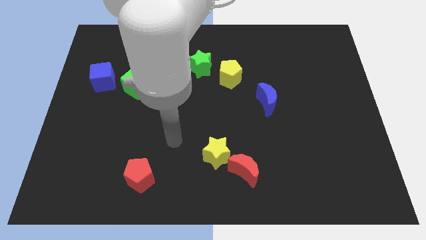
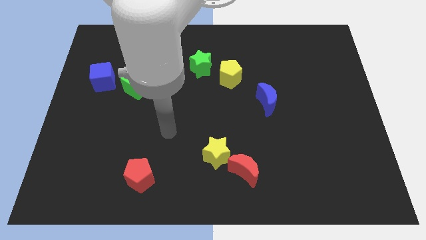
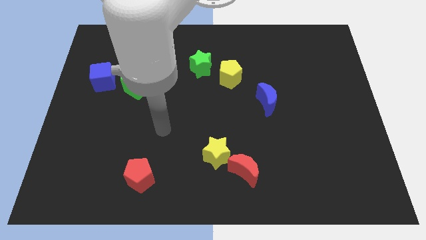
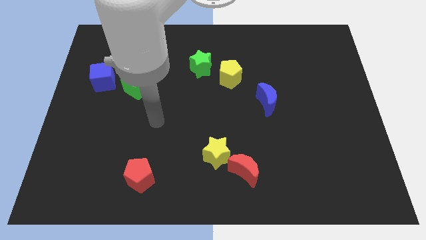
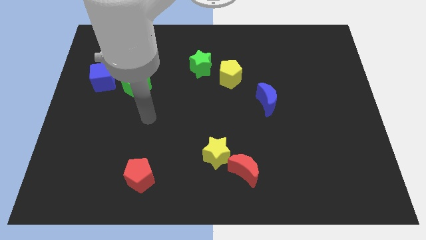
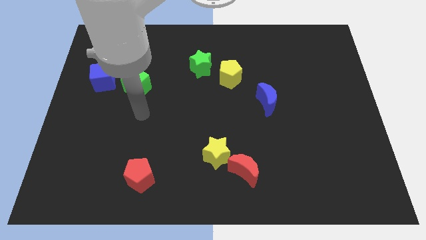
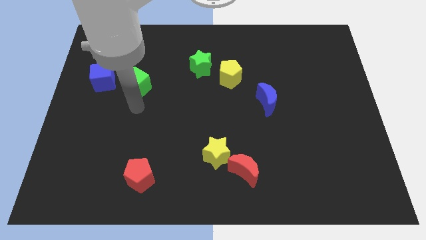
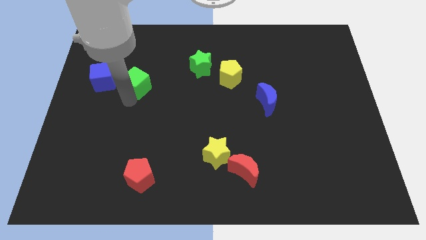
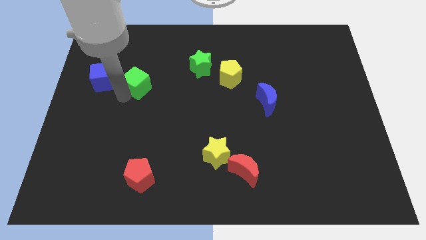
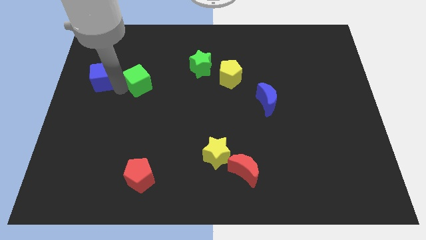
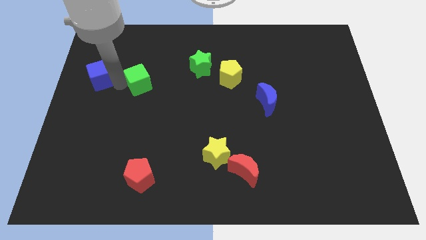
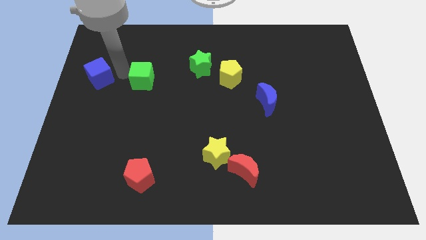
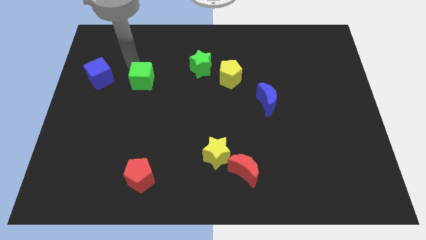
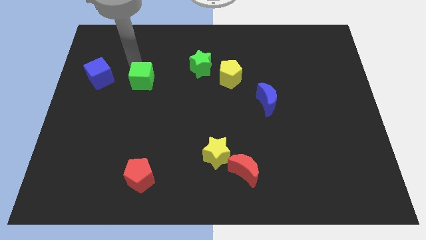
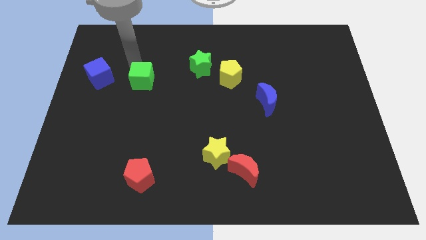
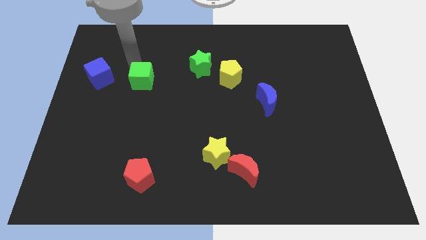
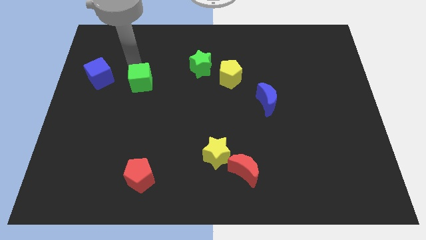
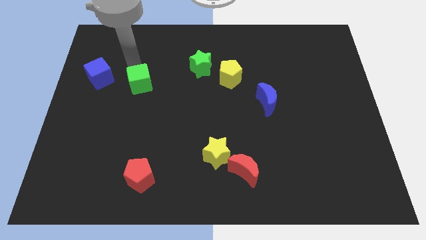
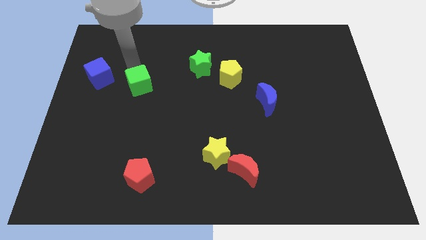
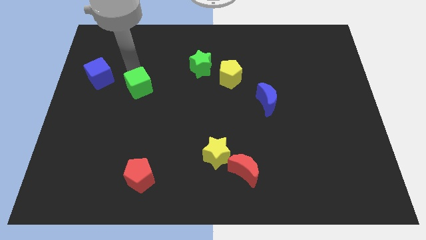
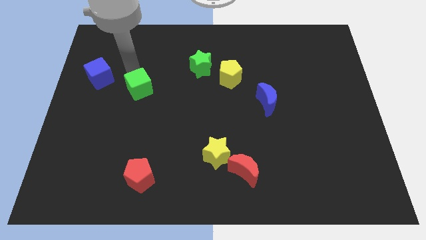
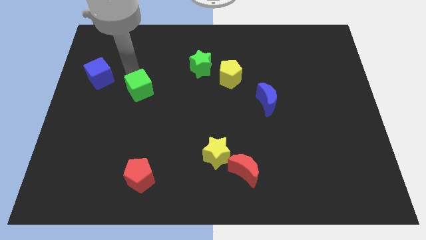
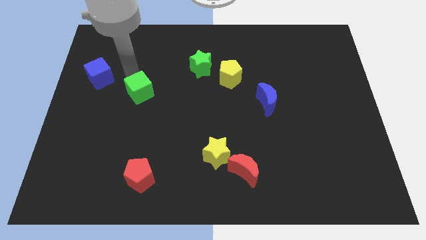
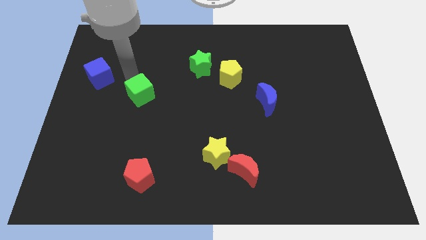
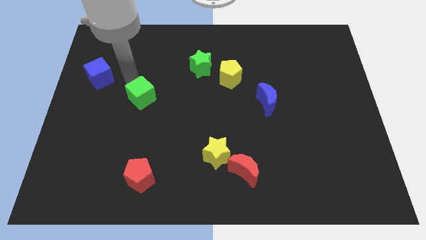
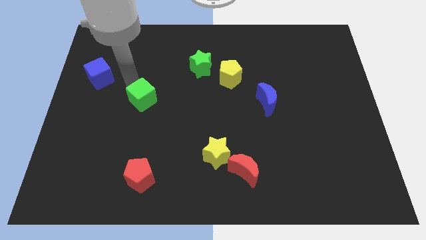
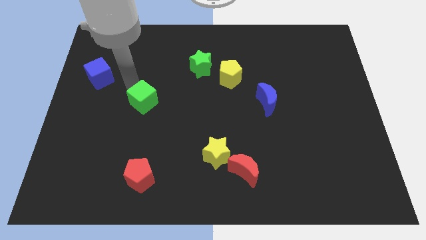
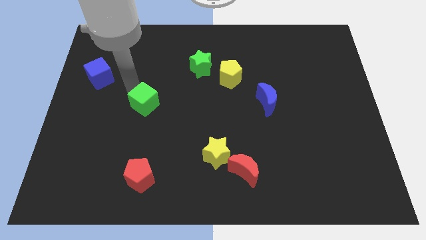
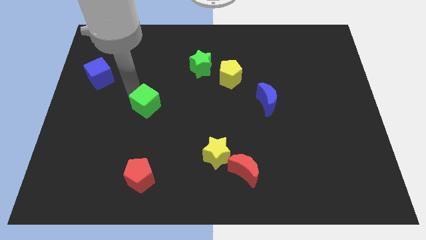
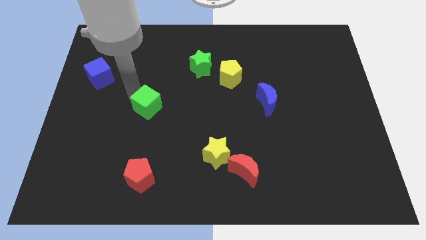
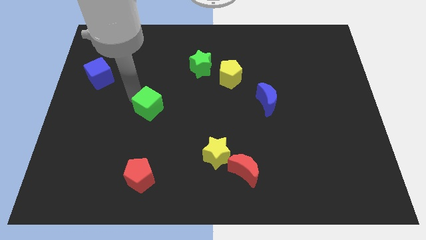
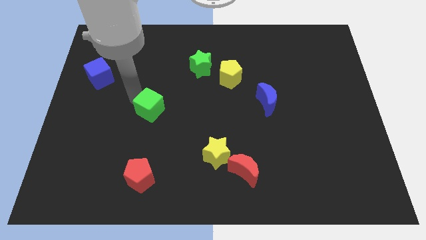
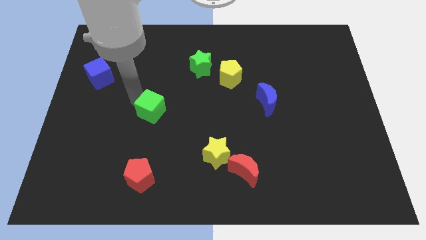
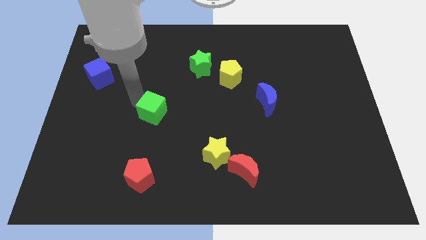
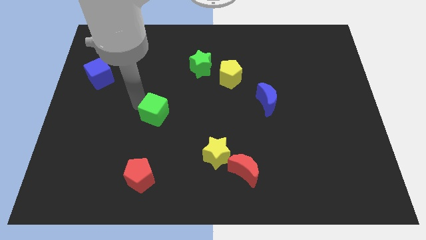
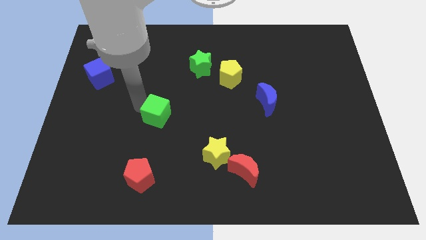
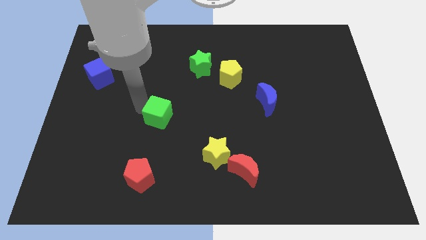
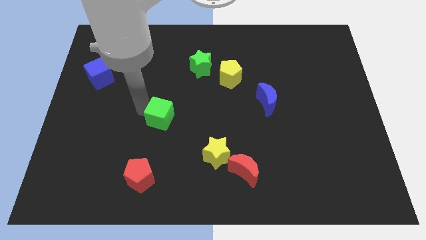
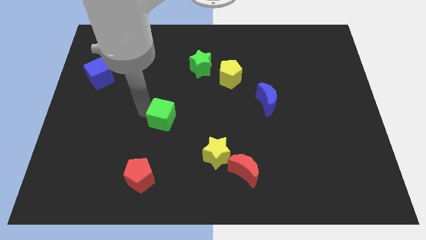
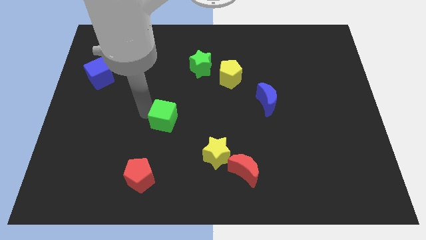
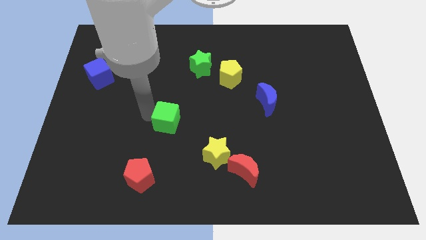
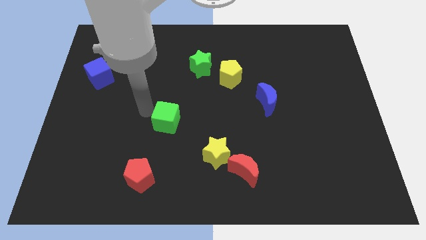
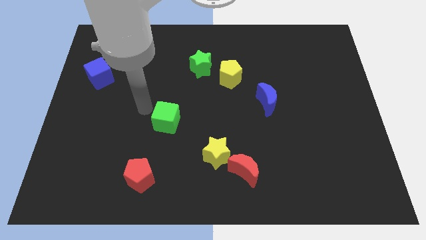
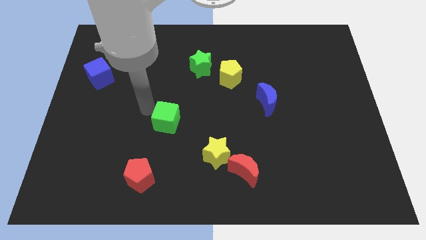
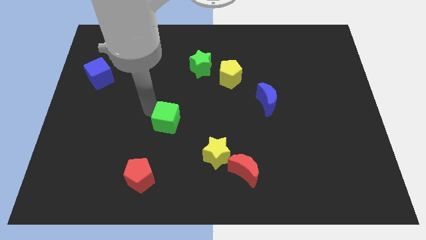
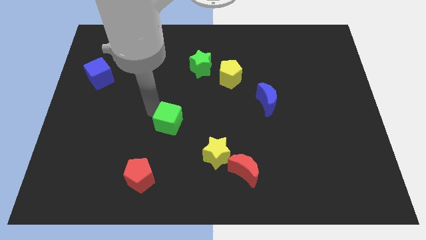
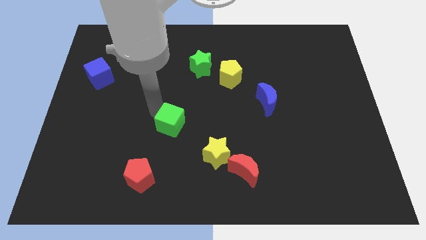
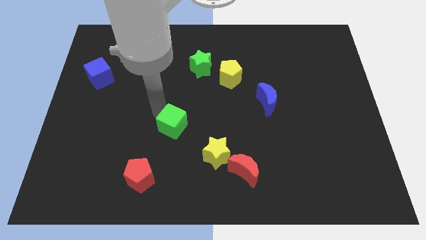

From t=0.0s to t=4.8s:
push the green cube diagonally up and to the left of the yellow star

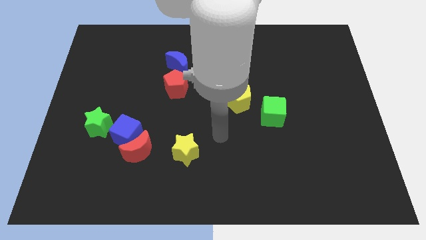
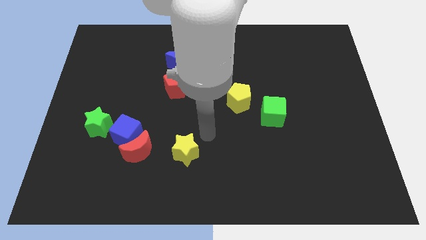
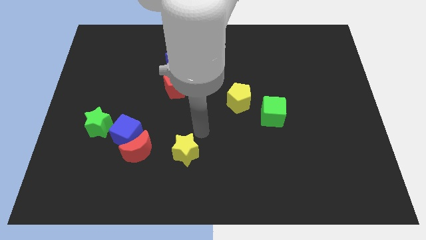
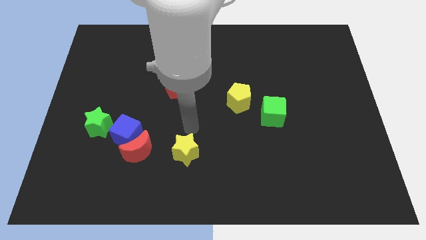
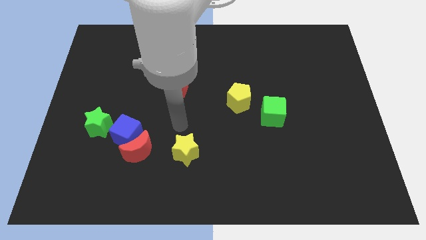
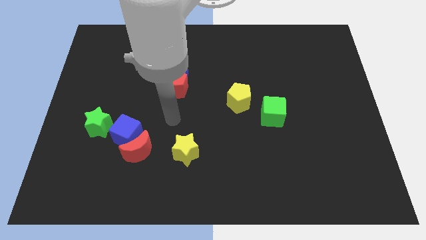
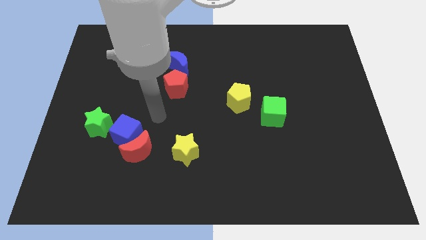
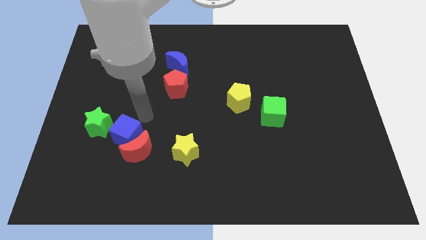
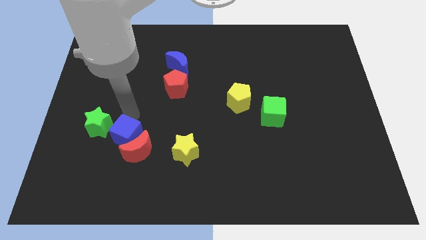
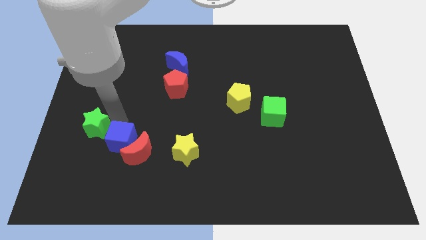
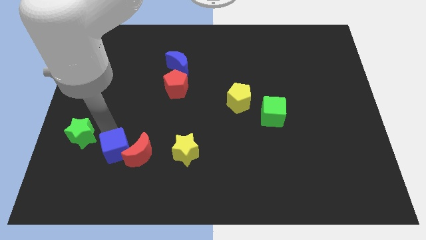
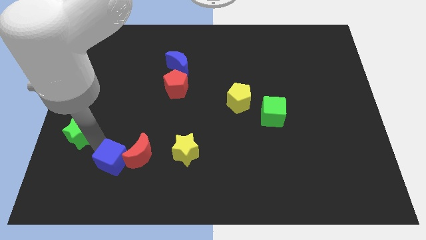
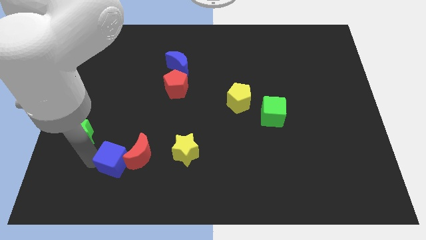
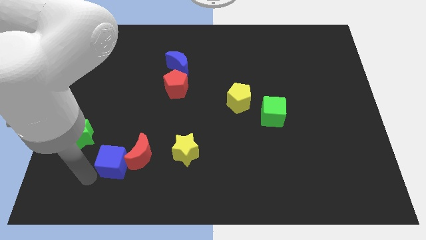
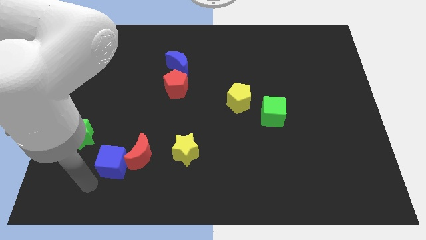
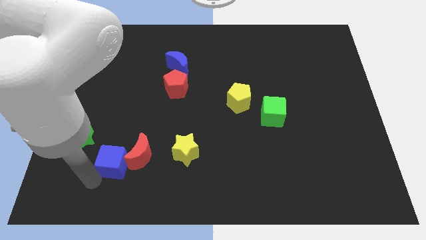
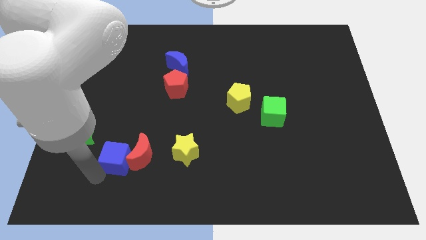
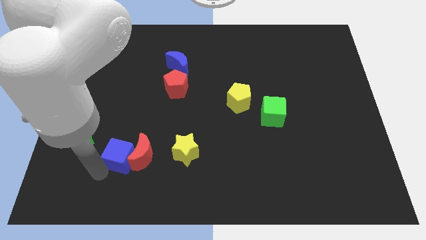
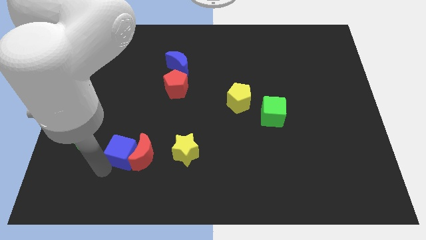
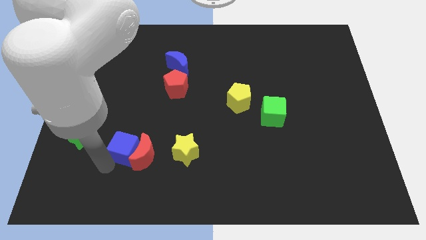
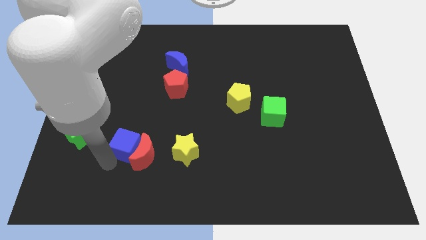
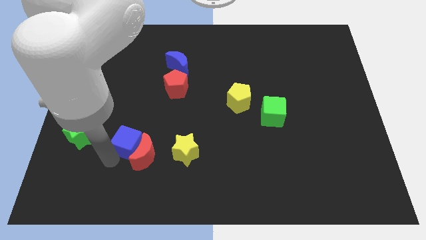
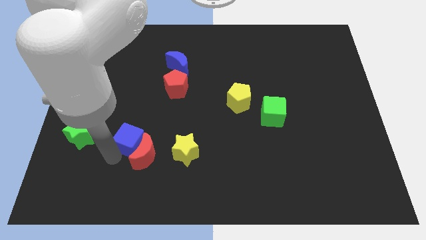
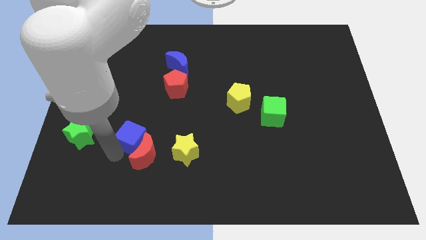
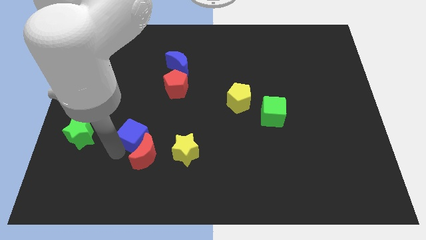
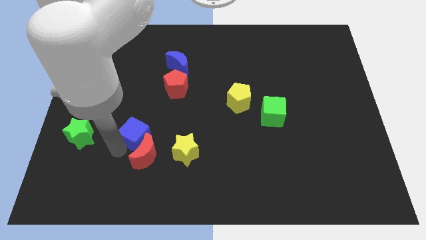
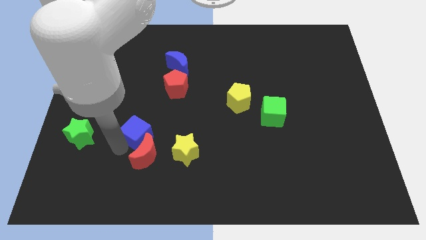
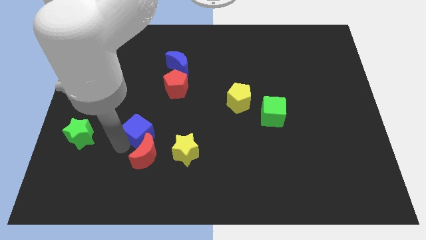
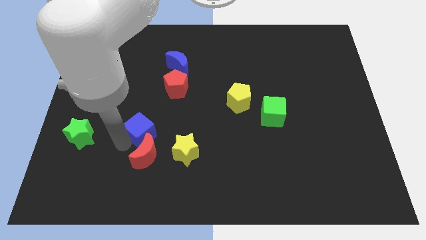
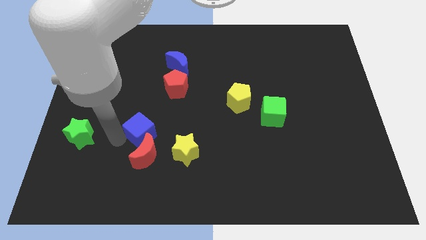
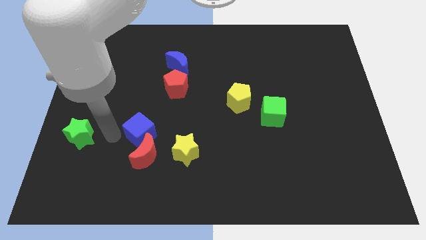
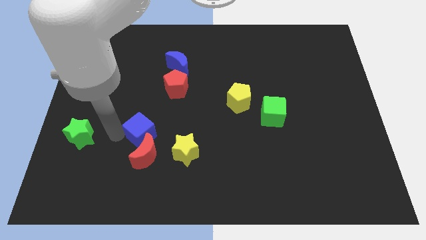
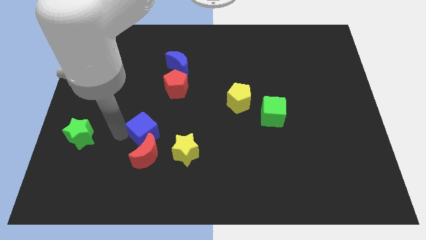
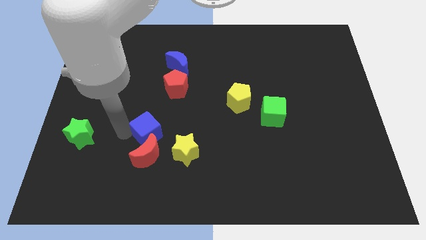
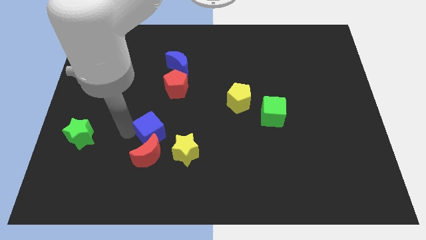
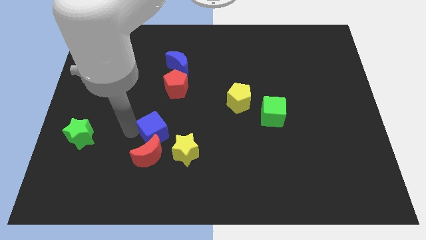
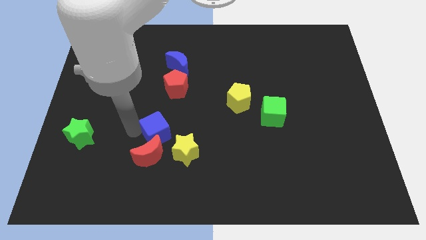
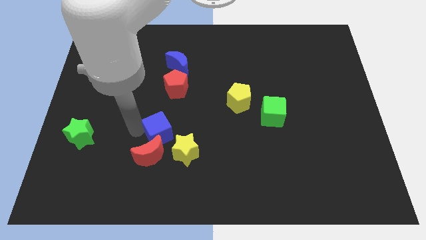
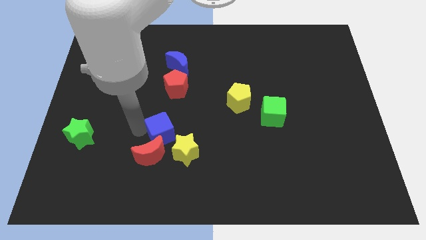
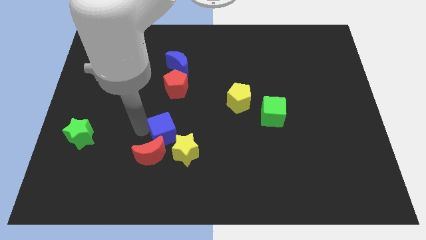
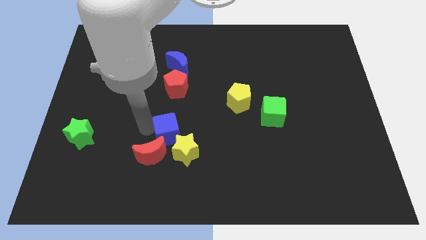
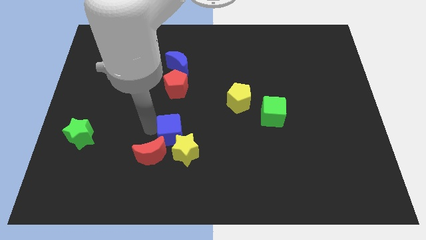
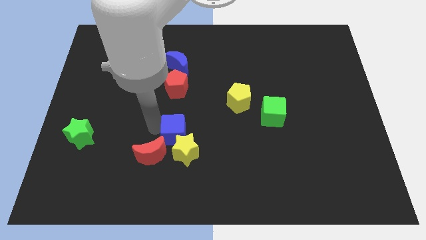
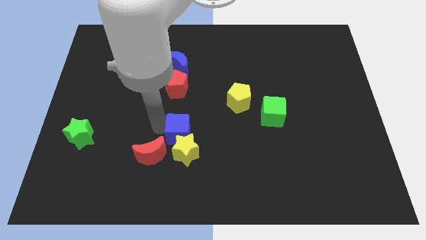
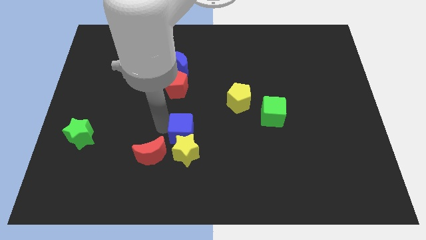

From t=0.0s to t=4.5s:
slide the blue cube diagonally up and to the right of the yellow star
